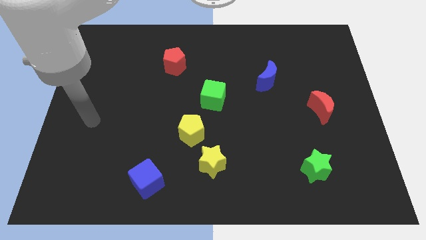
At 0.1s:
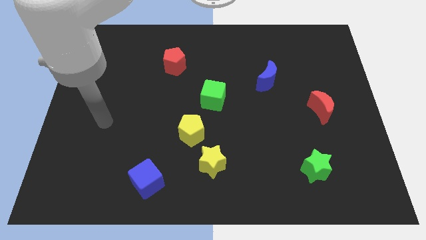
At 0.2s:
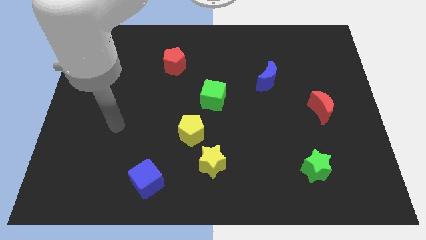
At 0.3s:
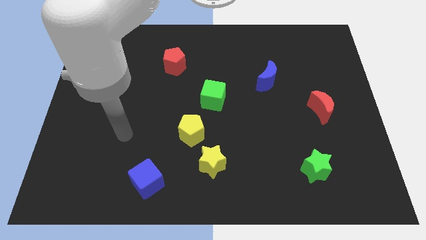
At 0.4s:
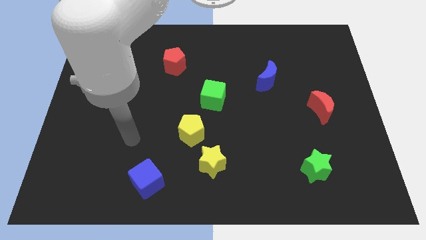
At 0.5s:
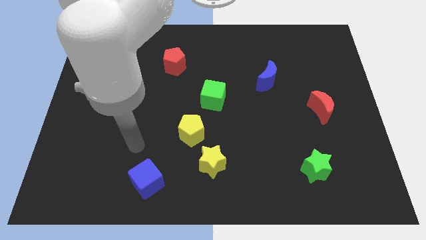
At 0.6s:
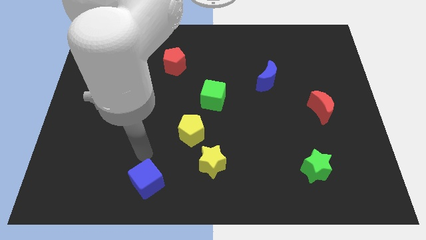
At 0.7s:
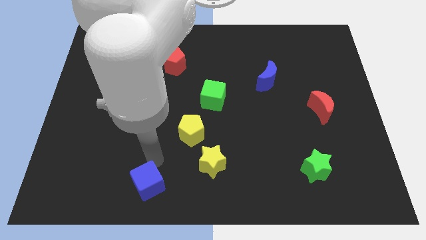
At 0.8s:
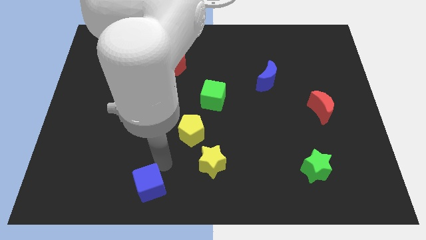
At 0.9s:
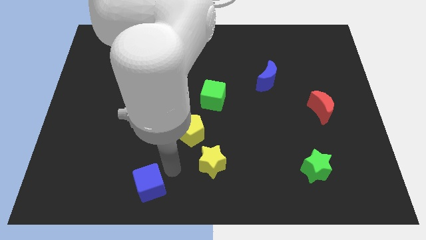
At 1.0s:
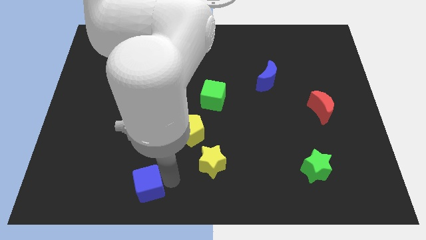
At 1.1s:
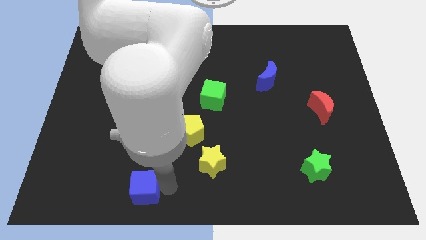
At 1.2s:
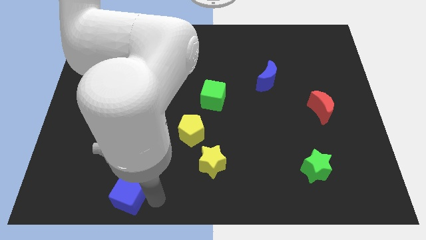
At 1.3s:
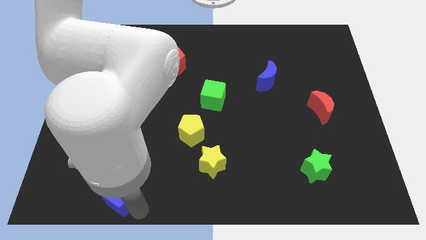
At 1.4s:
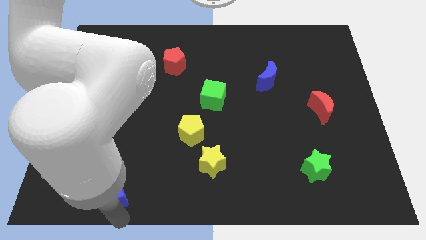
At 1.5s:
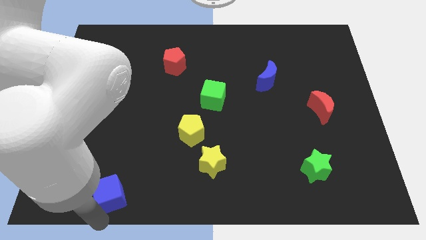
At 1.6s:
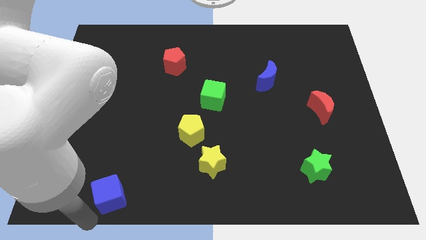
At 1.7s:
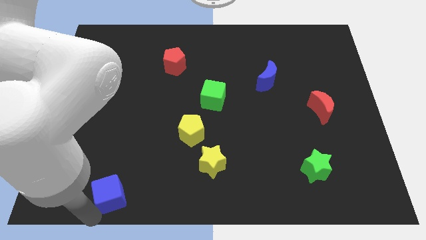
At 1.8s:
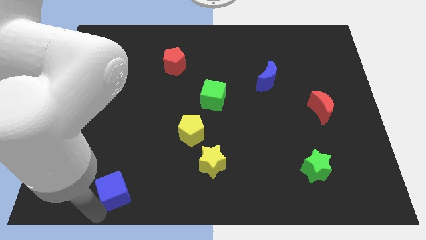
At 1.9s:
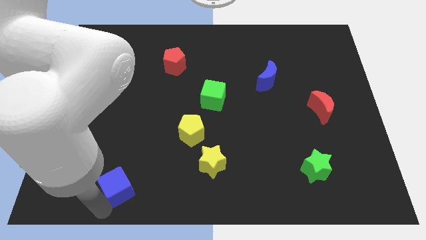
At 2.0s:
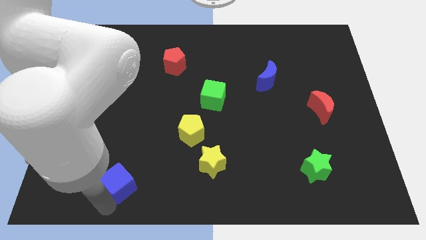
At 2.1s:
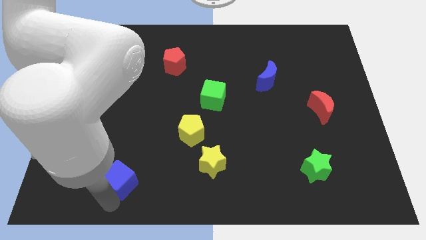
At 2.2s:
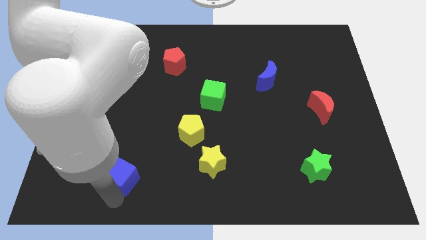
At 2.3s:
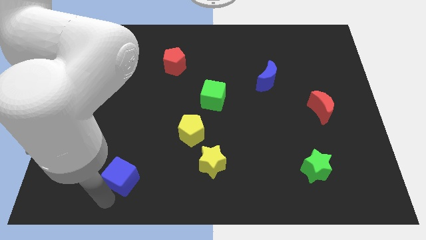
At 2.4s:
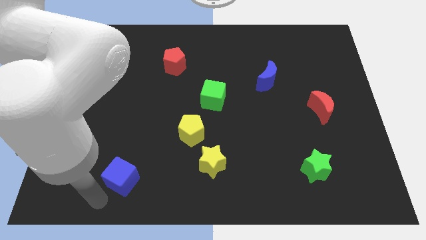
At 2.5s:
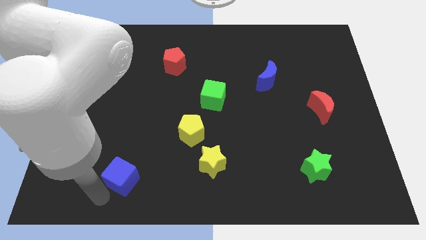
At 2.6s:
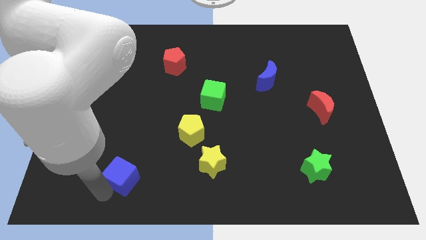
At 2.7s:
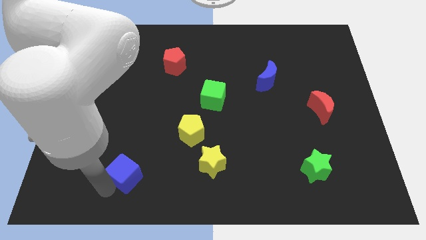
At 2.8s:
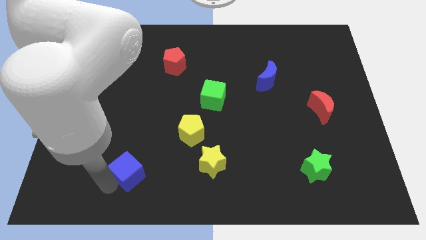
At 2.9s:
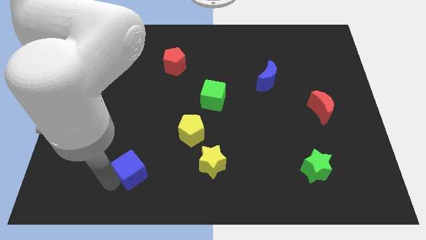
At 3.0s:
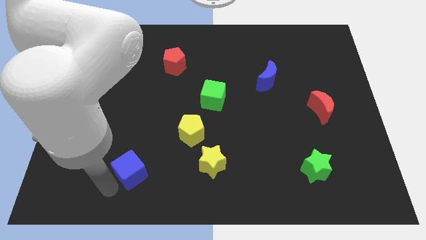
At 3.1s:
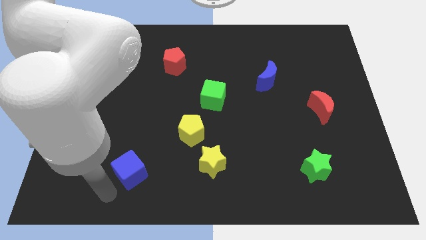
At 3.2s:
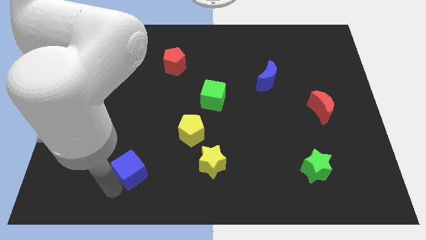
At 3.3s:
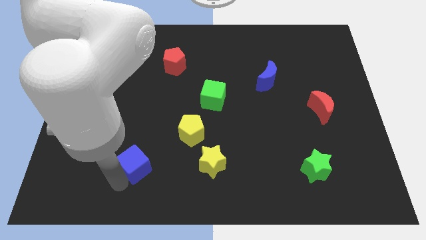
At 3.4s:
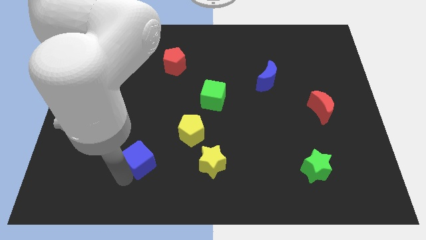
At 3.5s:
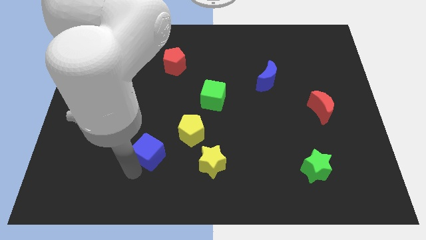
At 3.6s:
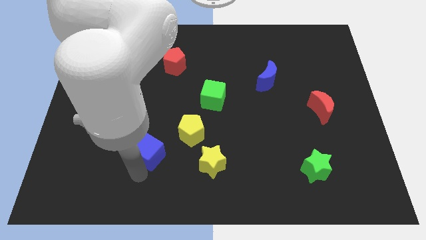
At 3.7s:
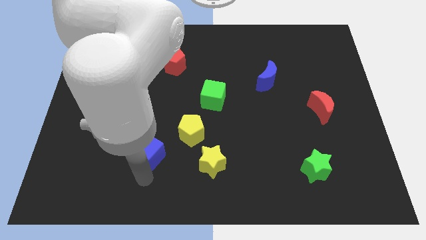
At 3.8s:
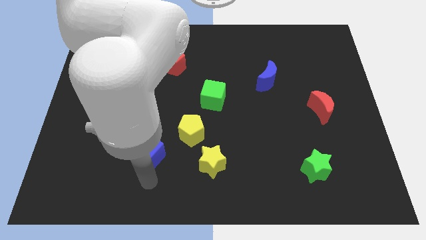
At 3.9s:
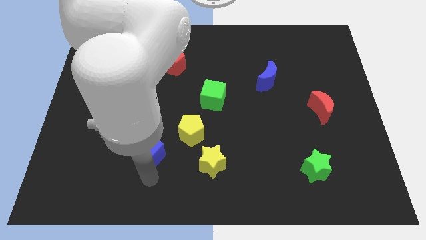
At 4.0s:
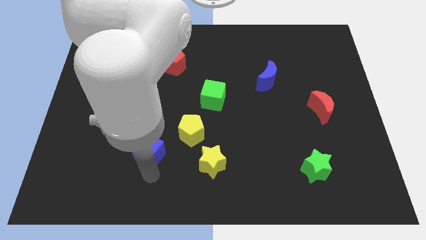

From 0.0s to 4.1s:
slightly move the blue cube upwards

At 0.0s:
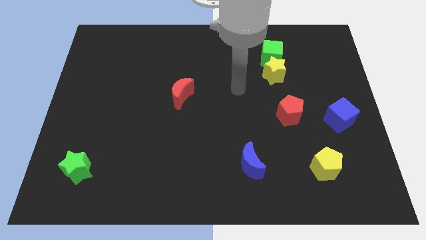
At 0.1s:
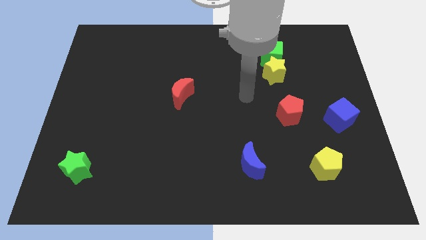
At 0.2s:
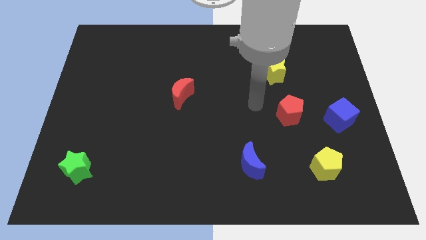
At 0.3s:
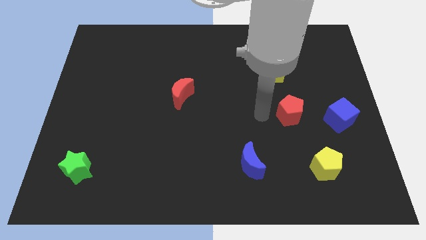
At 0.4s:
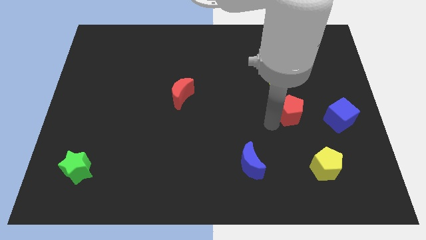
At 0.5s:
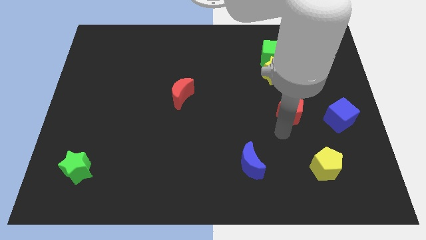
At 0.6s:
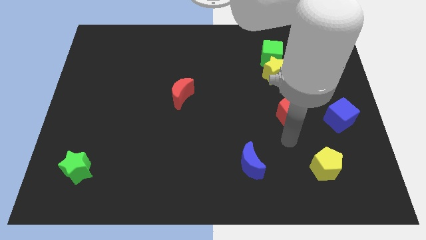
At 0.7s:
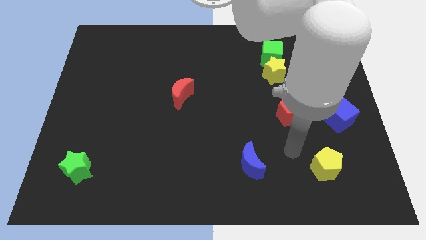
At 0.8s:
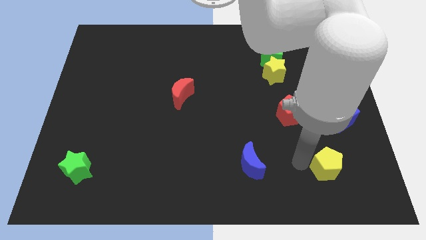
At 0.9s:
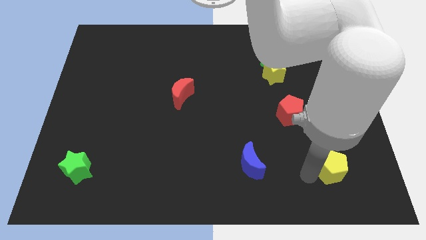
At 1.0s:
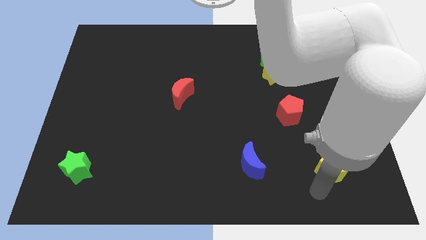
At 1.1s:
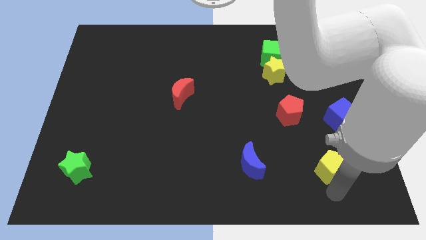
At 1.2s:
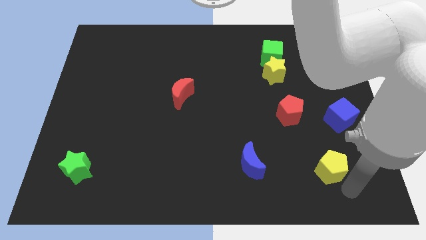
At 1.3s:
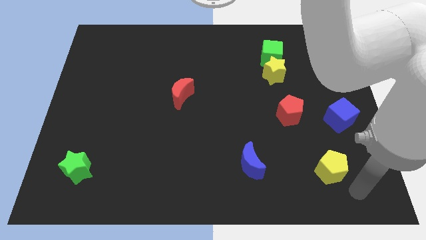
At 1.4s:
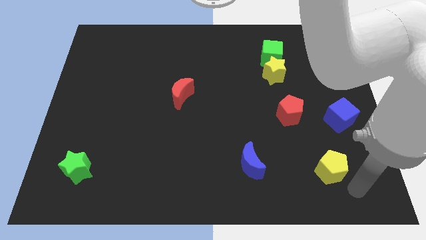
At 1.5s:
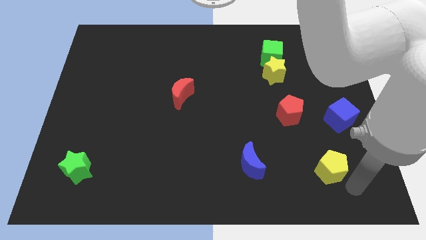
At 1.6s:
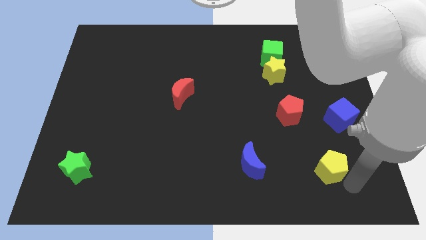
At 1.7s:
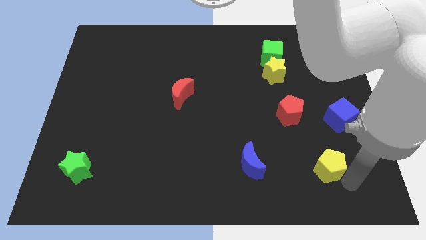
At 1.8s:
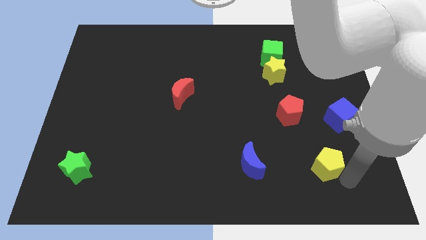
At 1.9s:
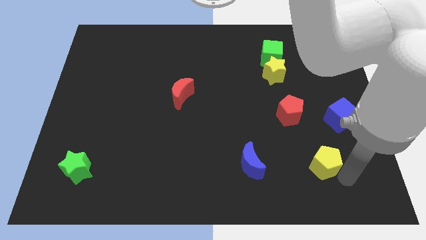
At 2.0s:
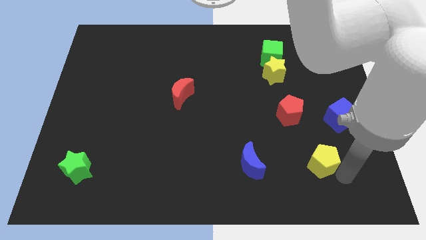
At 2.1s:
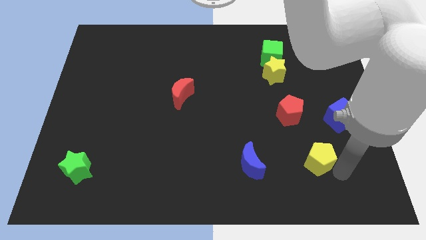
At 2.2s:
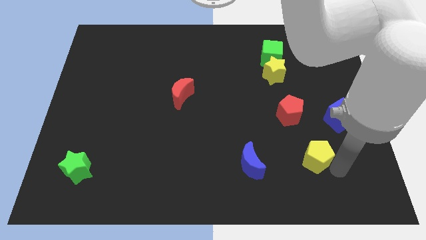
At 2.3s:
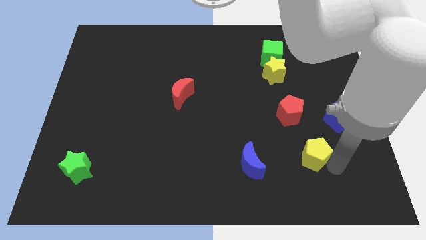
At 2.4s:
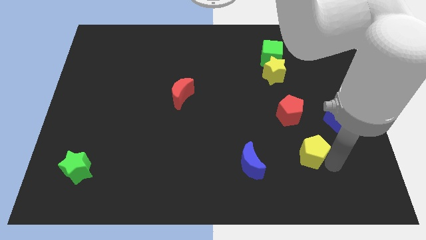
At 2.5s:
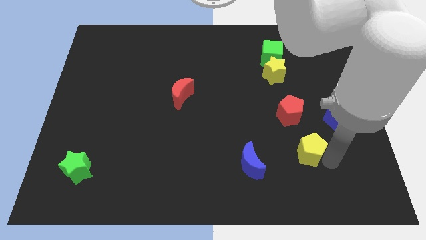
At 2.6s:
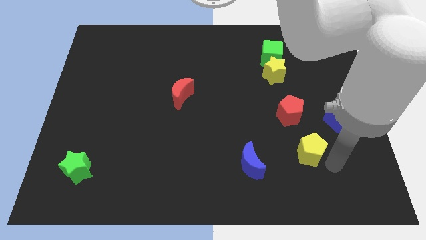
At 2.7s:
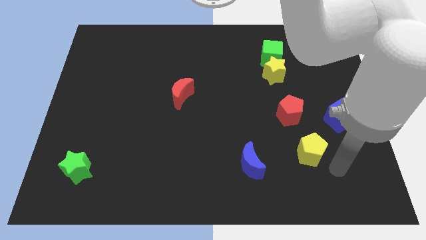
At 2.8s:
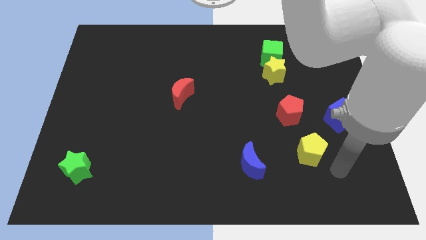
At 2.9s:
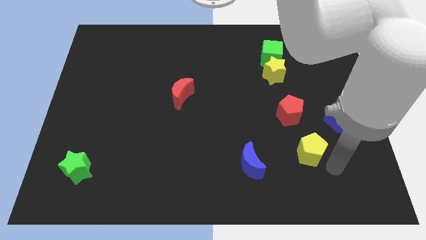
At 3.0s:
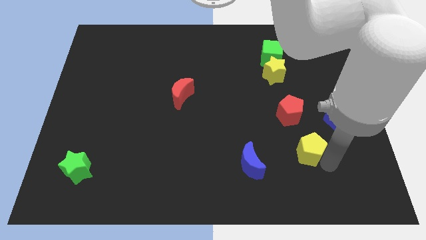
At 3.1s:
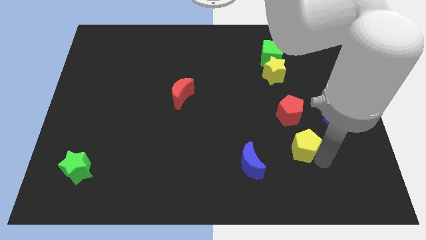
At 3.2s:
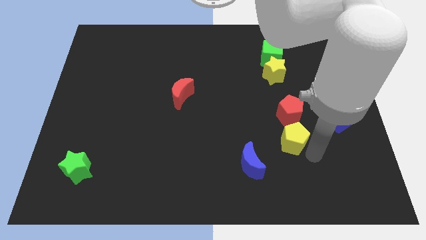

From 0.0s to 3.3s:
slightly move the yellow pentagon upwards and to the left

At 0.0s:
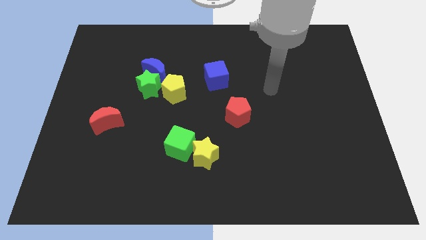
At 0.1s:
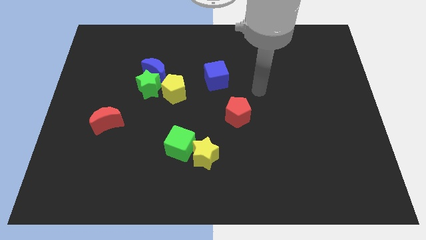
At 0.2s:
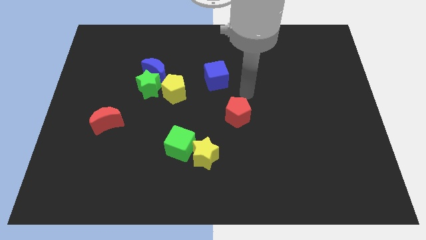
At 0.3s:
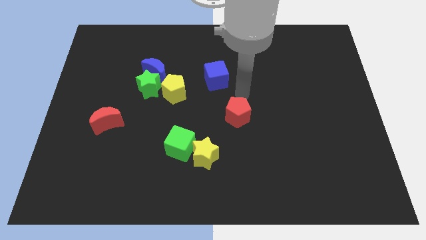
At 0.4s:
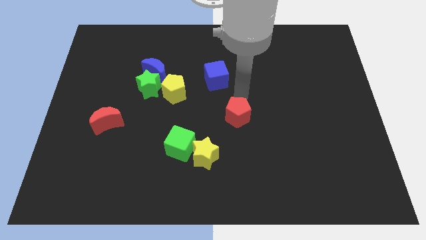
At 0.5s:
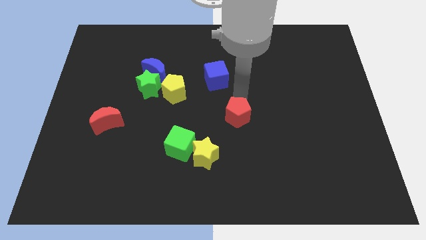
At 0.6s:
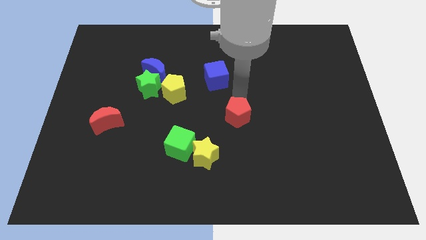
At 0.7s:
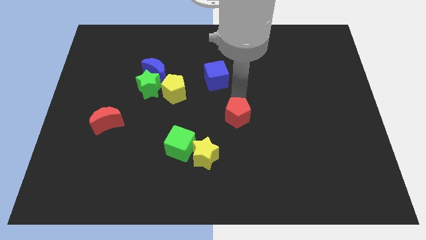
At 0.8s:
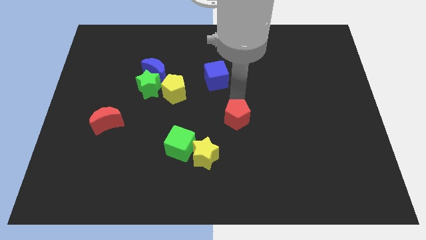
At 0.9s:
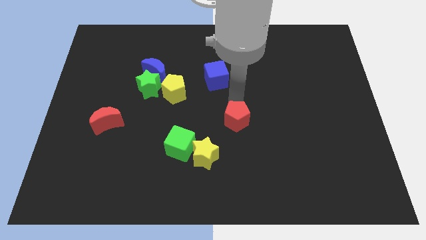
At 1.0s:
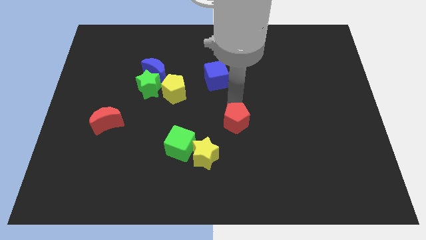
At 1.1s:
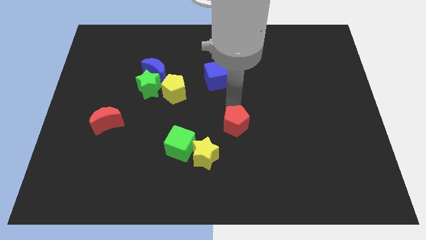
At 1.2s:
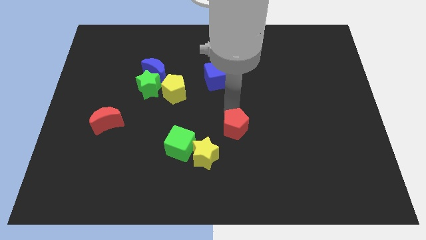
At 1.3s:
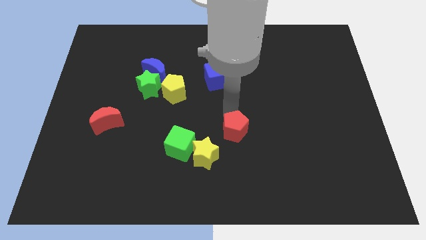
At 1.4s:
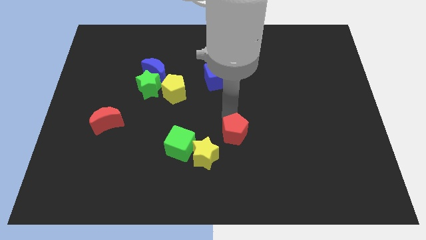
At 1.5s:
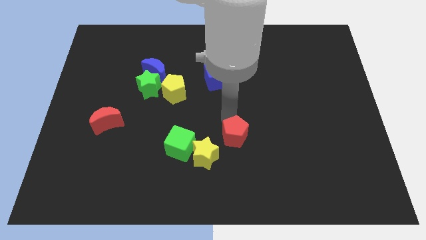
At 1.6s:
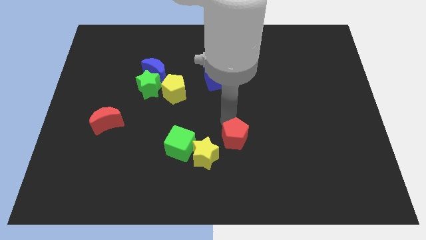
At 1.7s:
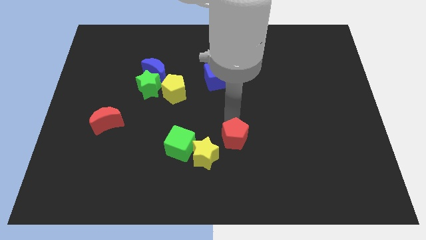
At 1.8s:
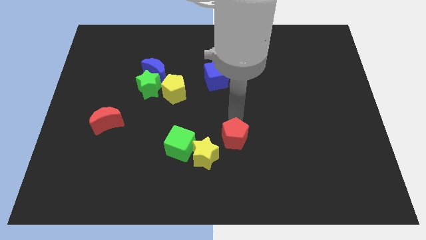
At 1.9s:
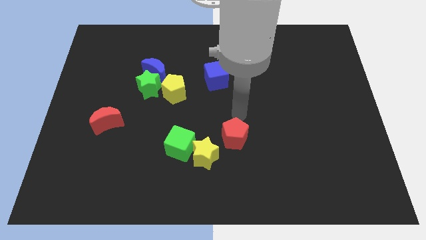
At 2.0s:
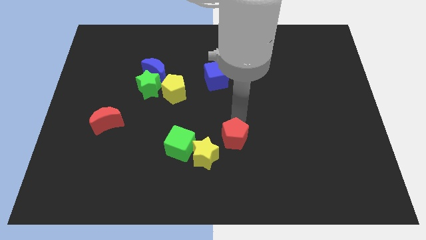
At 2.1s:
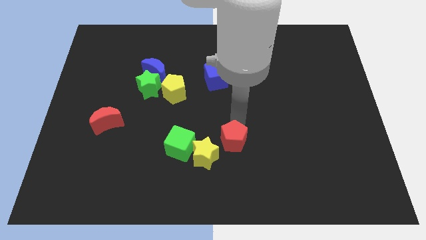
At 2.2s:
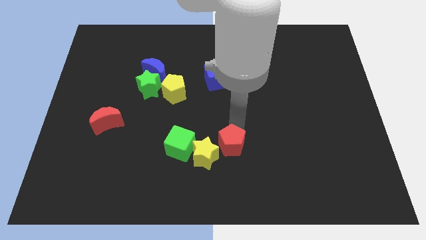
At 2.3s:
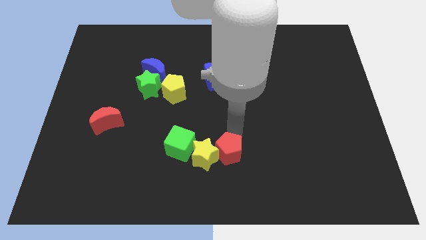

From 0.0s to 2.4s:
move the red pentagon downwards and then to the left somewhat
